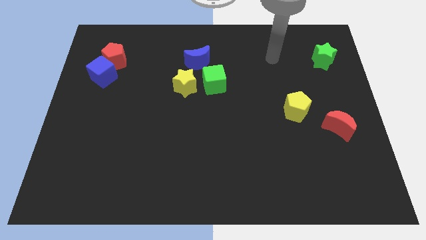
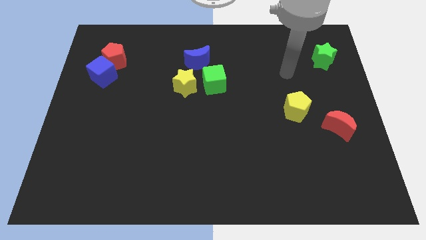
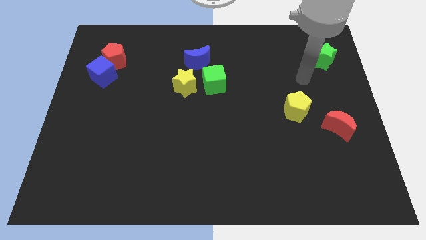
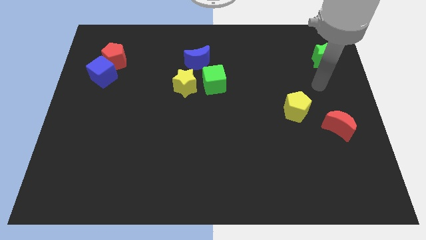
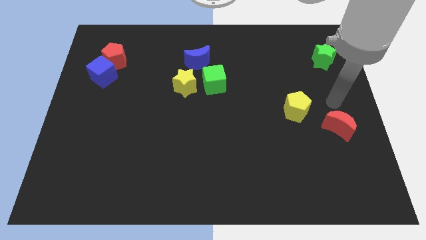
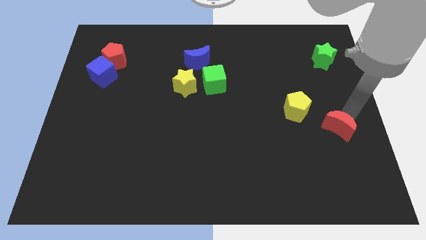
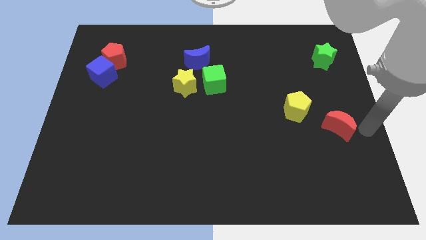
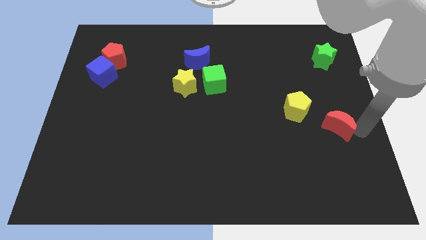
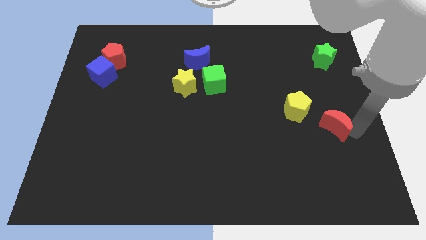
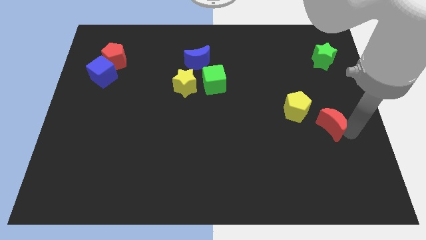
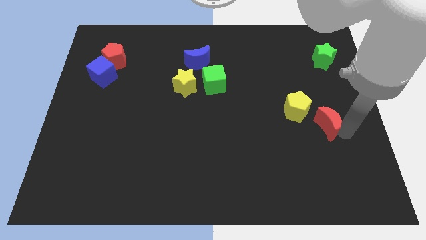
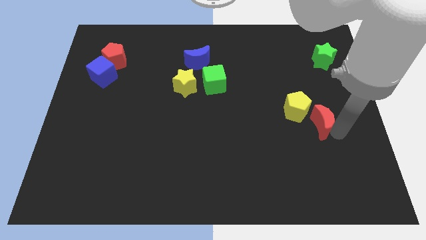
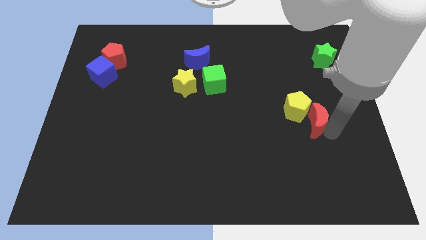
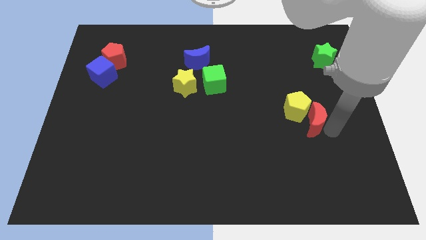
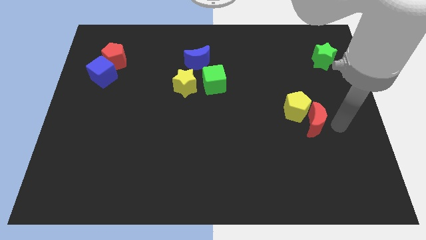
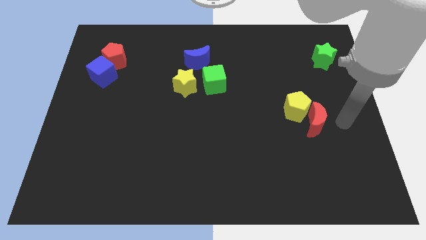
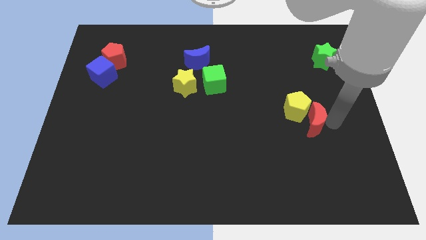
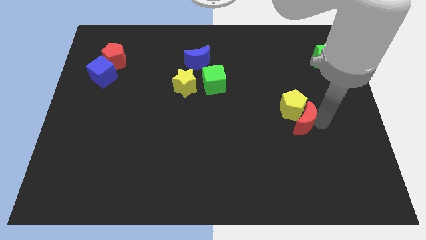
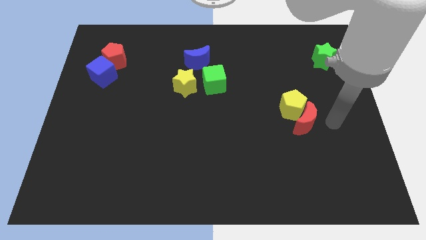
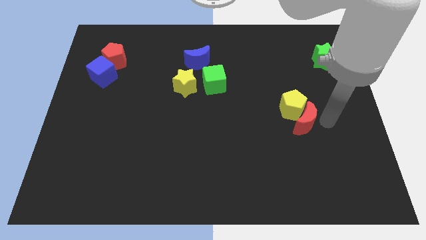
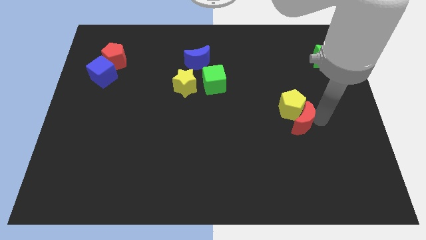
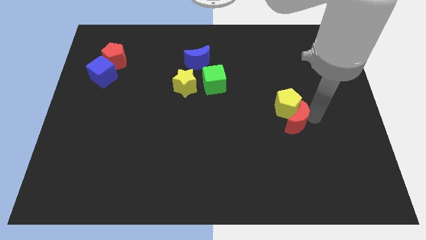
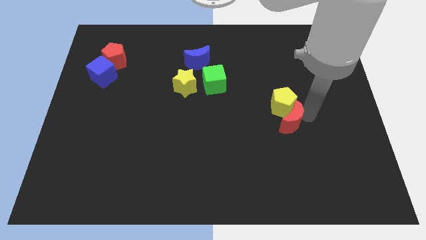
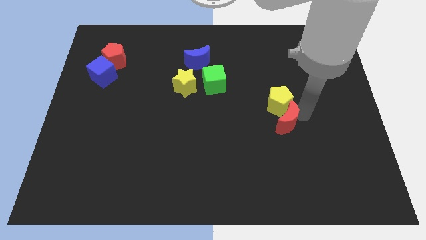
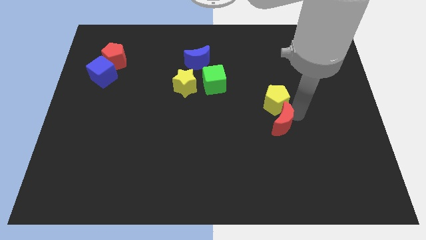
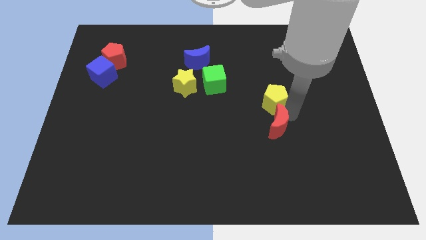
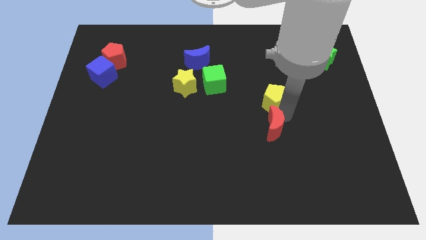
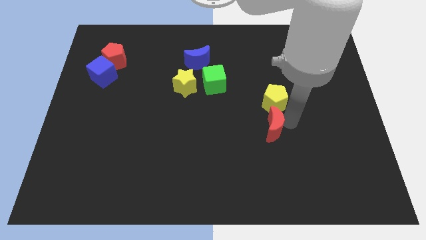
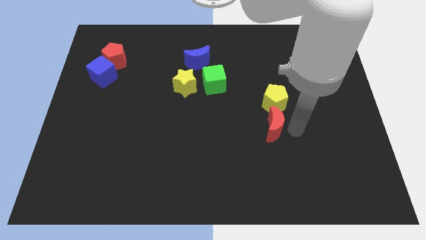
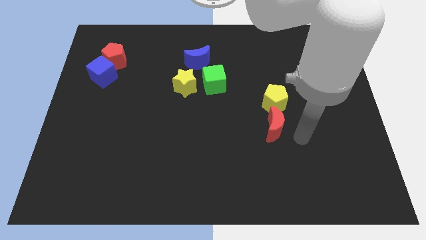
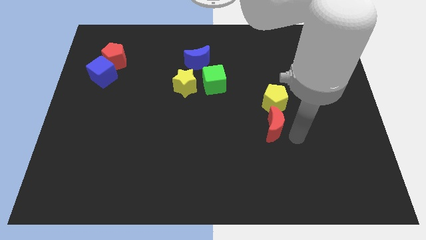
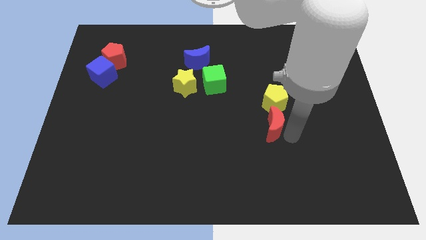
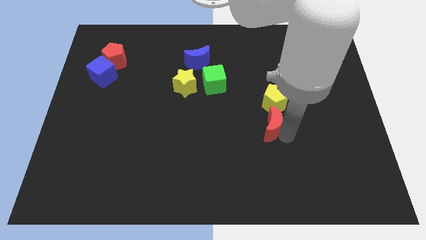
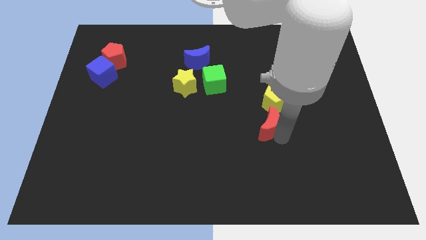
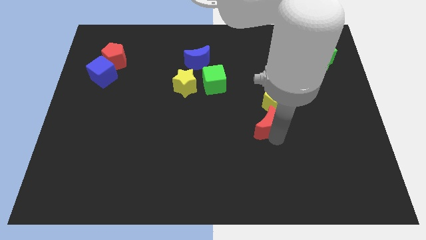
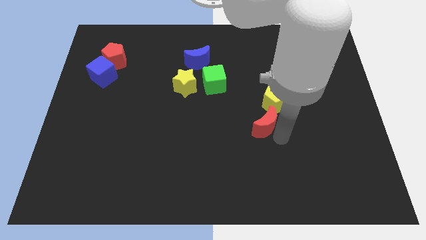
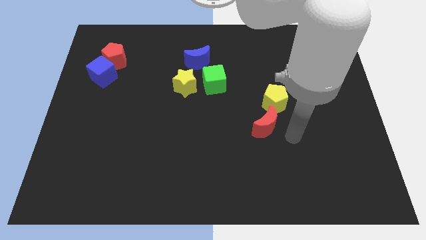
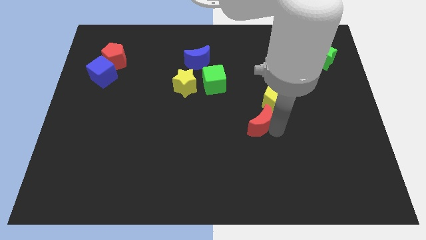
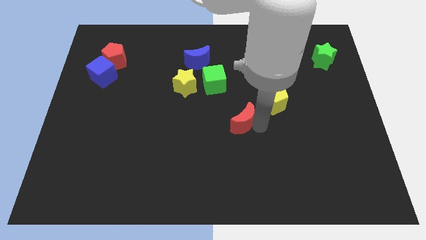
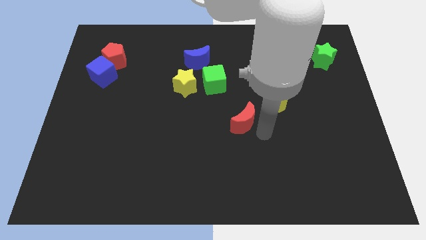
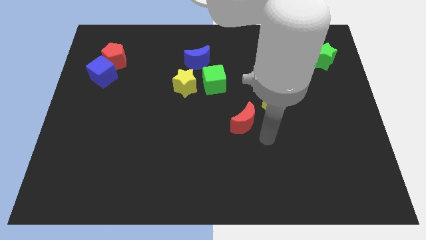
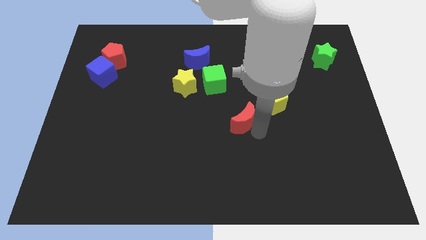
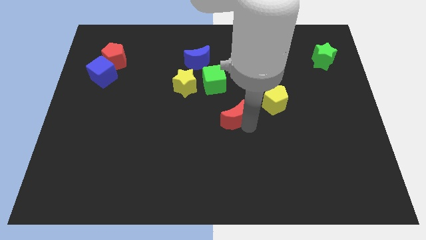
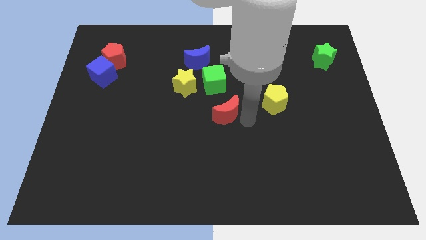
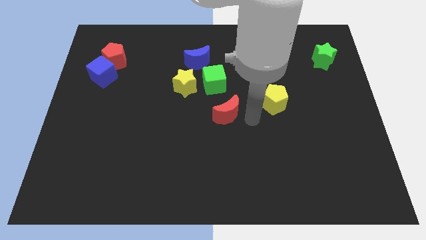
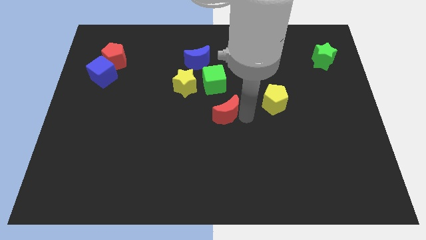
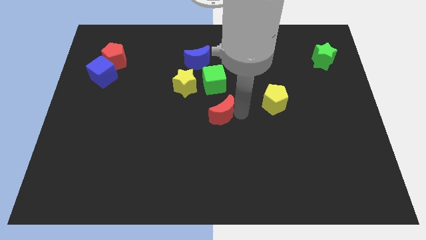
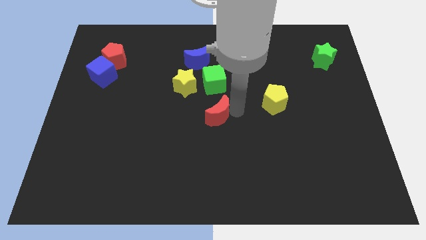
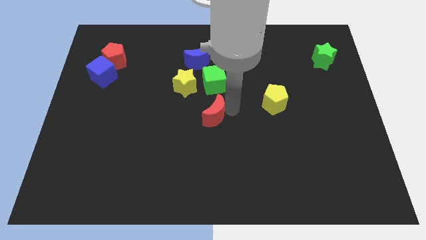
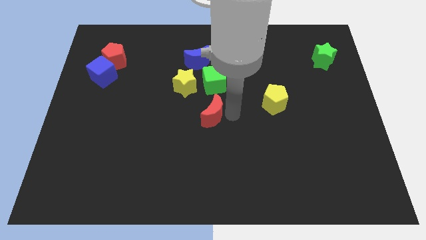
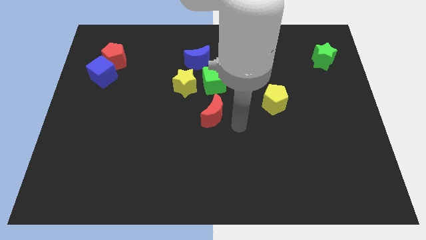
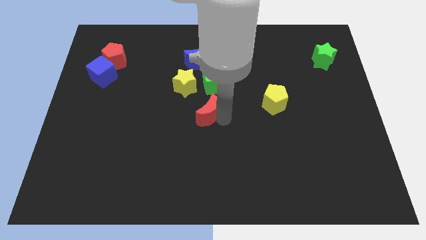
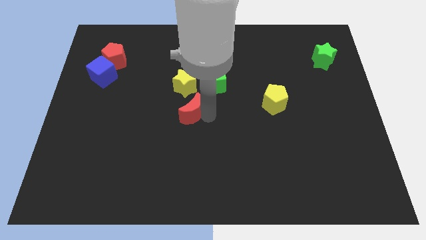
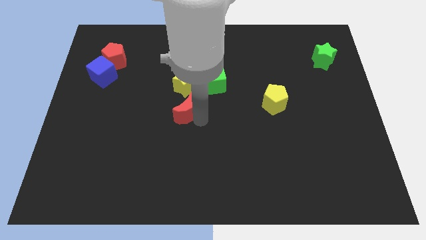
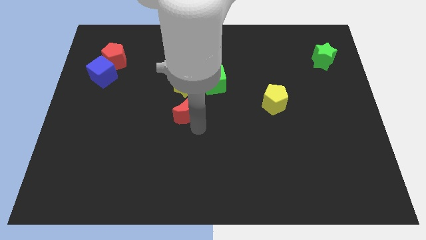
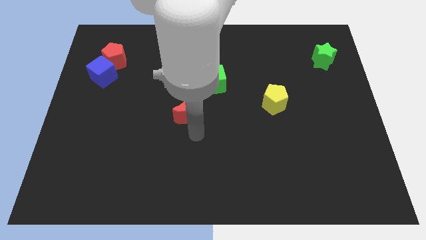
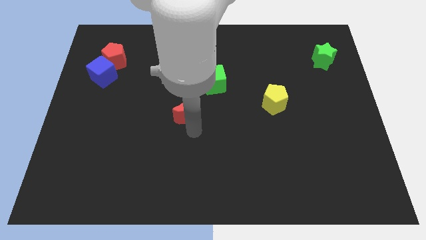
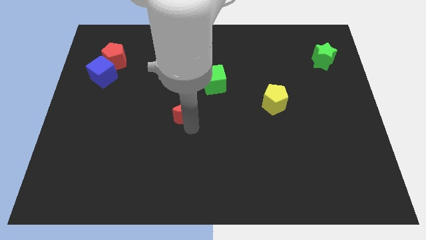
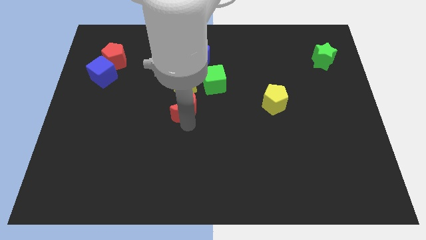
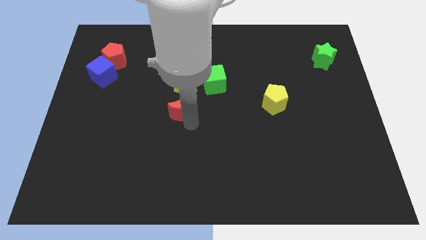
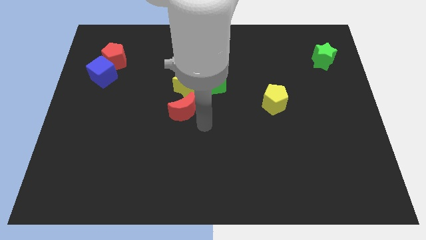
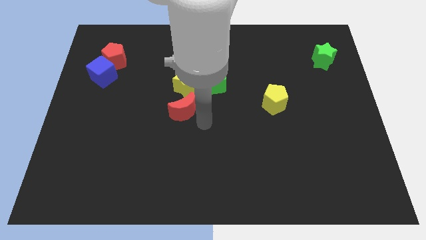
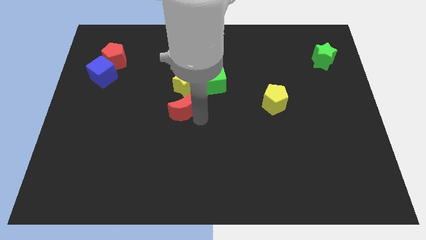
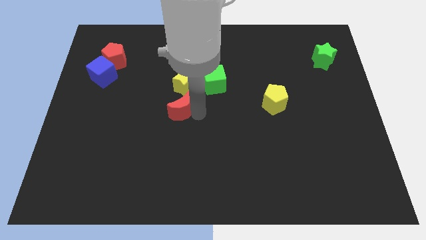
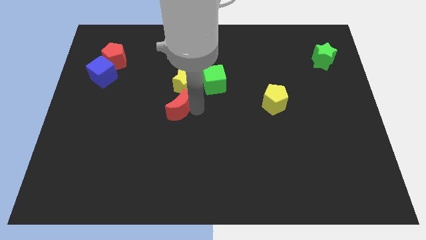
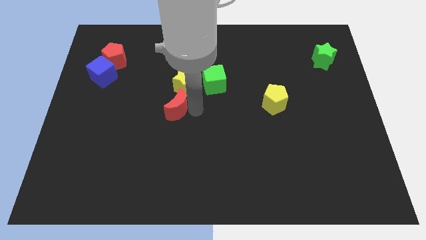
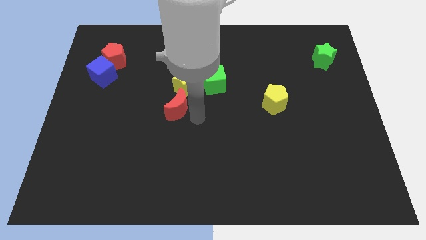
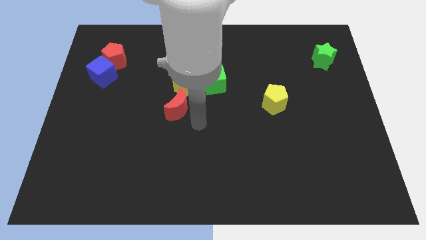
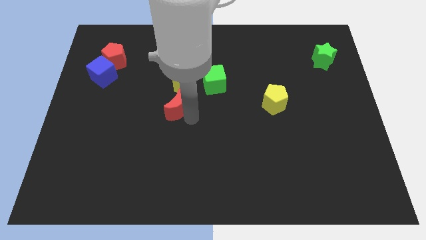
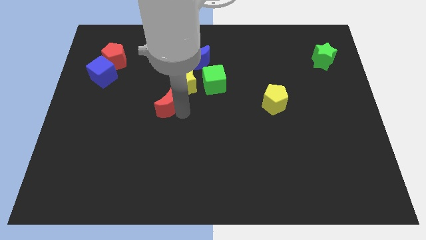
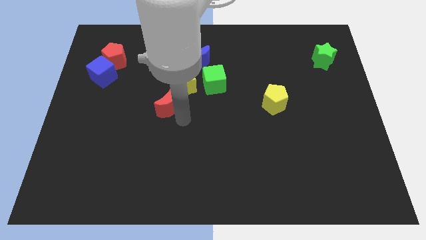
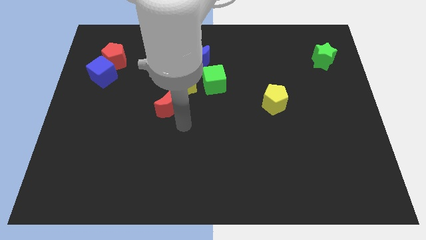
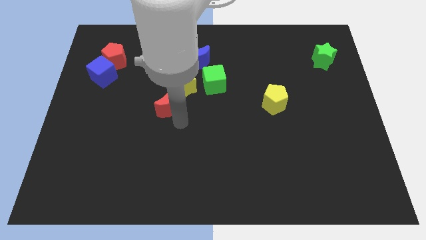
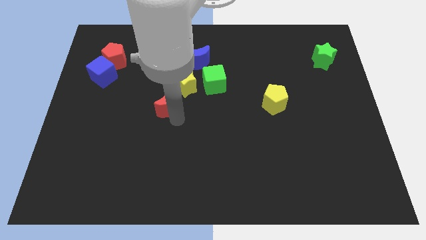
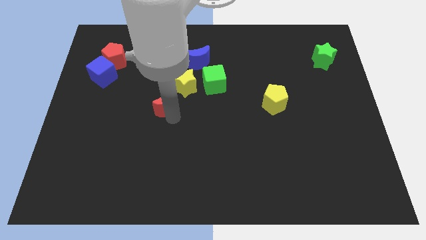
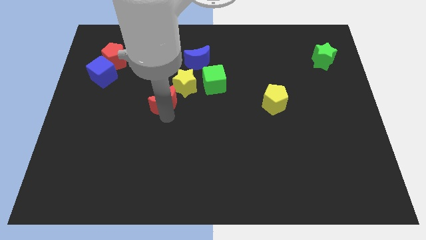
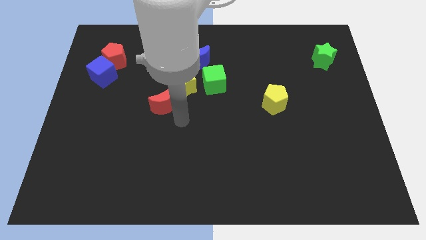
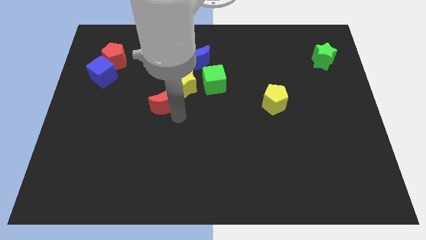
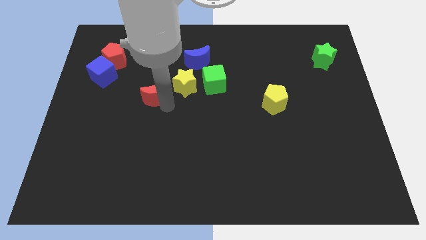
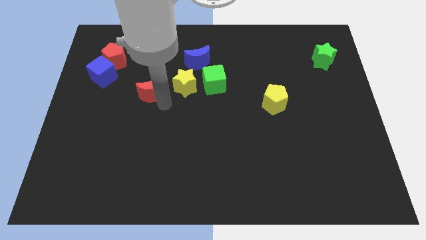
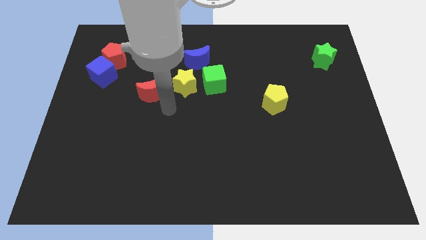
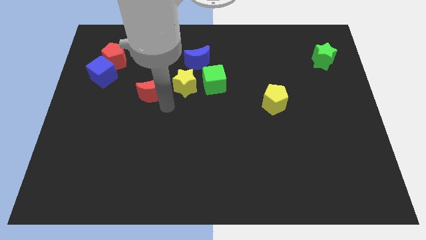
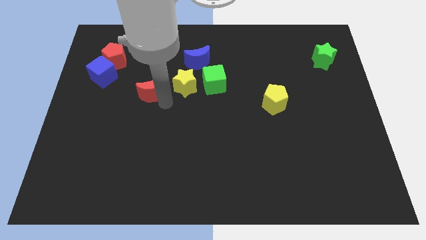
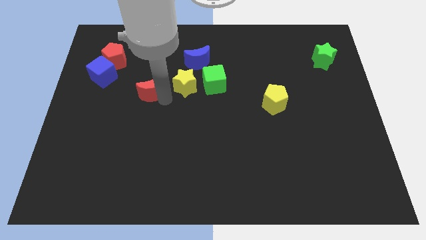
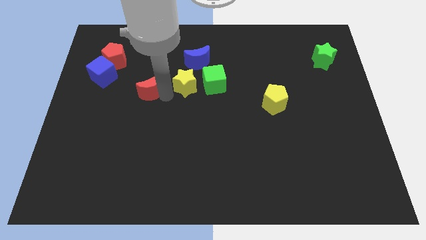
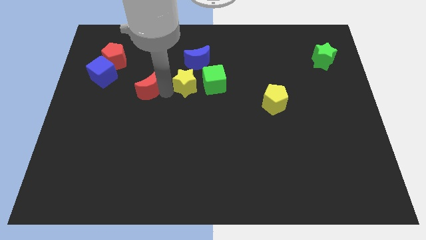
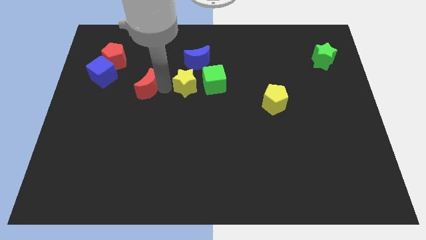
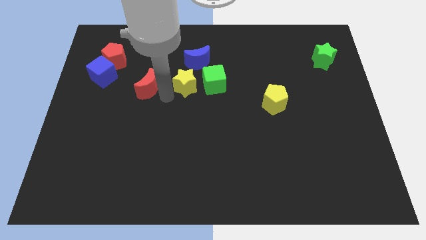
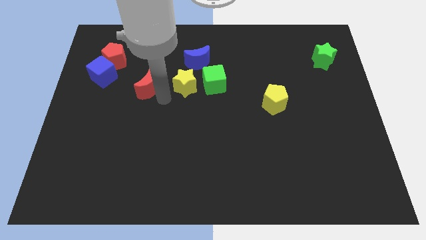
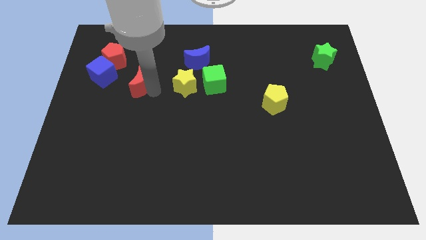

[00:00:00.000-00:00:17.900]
put the red moon diagonally down and to the right of the red pentagon
